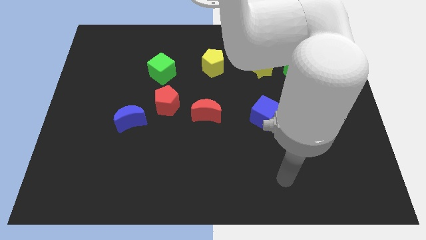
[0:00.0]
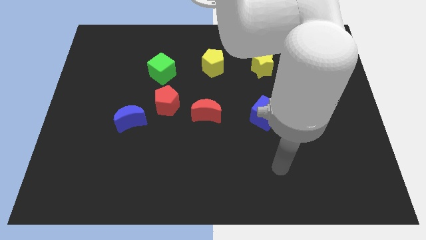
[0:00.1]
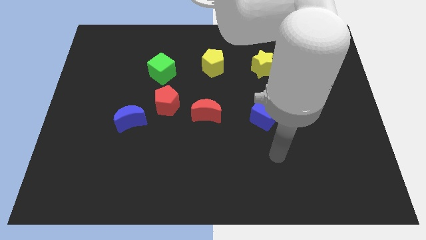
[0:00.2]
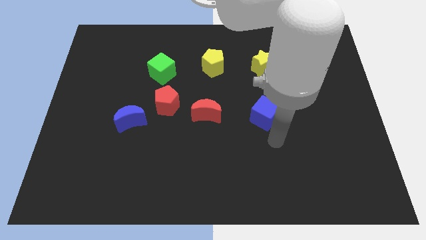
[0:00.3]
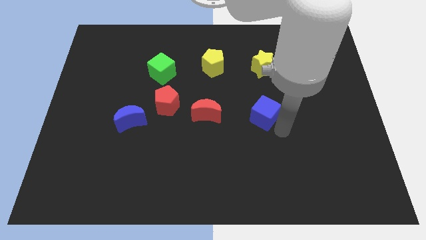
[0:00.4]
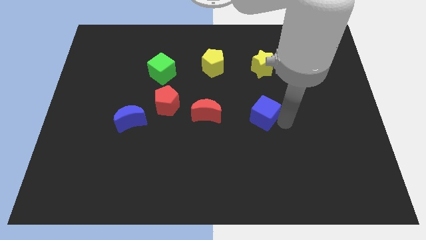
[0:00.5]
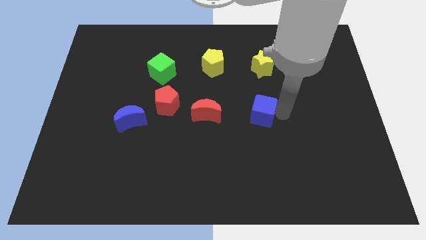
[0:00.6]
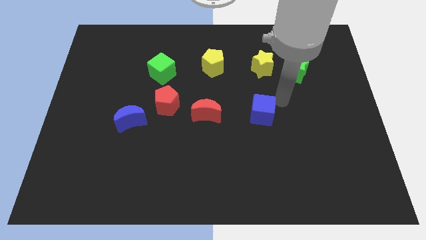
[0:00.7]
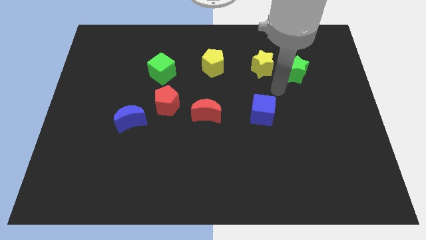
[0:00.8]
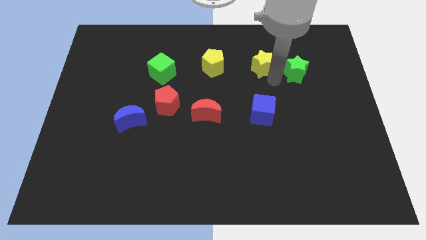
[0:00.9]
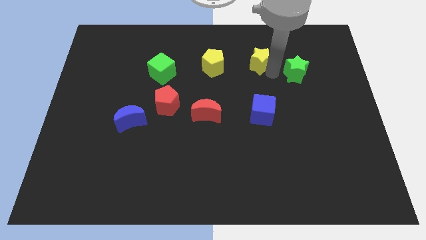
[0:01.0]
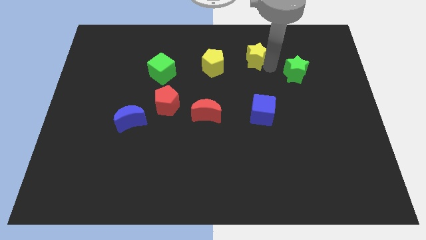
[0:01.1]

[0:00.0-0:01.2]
pull the green star apart from the yellow star

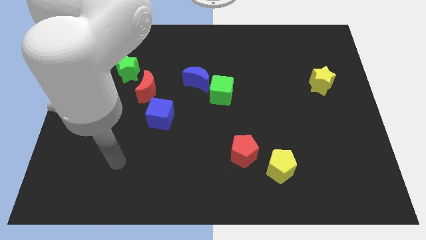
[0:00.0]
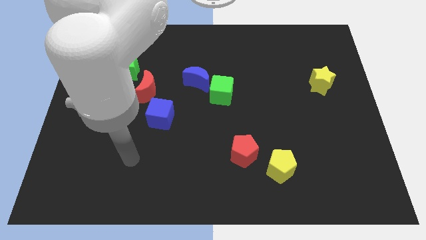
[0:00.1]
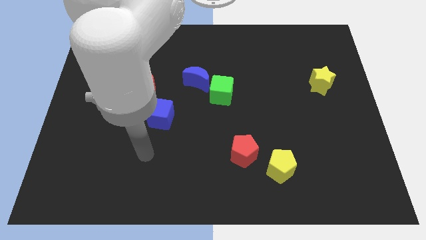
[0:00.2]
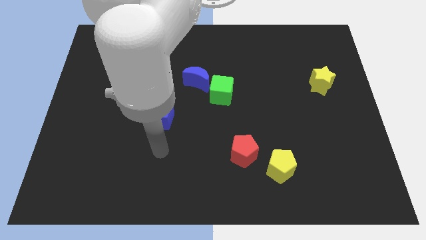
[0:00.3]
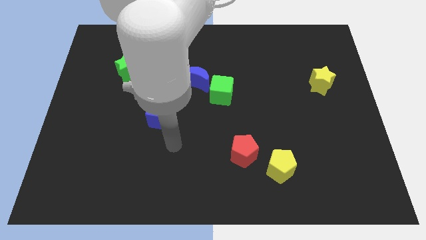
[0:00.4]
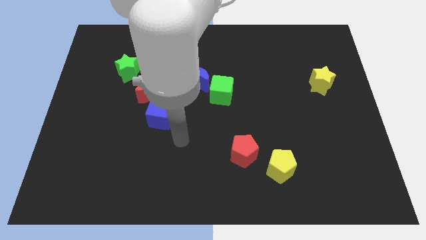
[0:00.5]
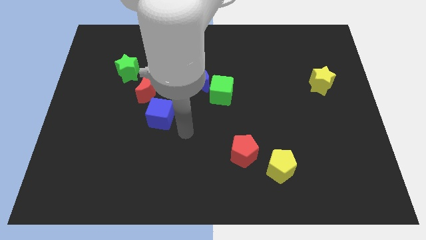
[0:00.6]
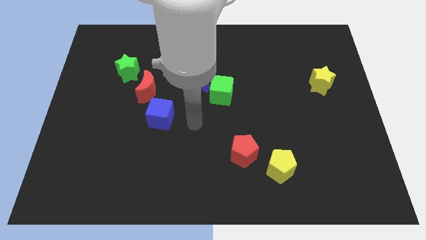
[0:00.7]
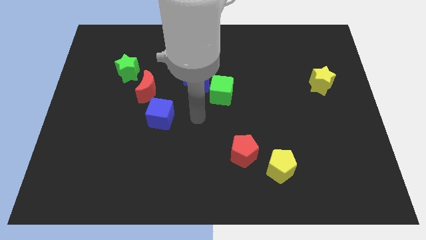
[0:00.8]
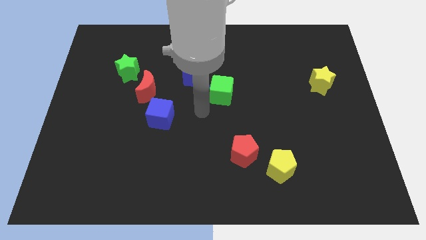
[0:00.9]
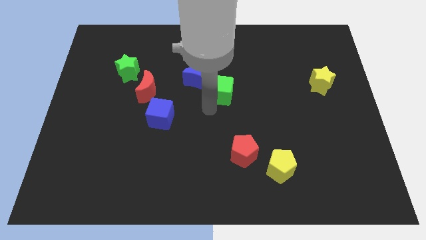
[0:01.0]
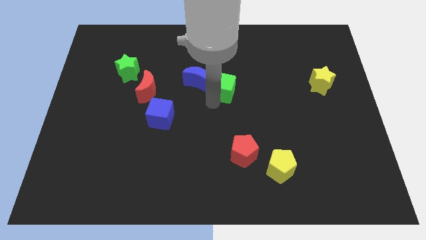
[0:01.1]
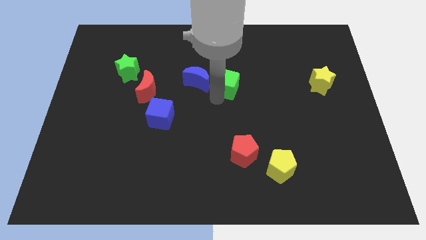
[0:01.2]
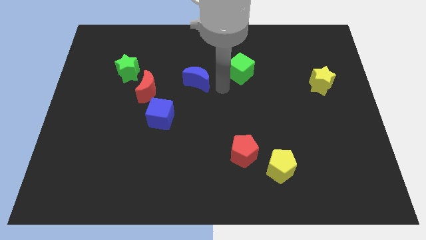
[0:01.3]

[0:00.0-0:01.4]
move the blue moon away from the green cube

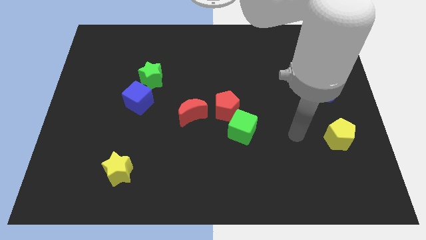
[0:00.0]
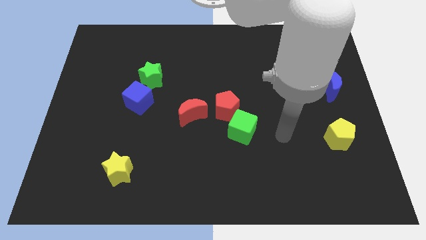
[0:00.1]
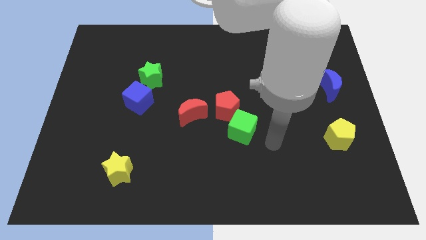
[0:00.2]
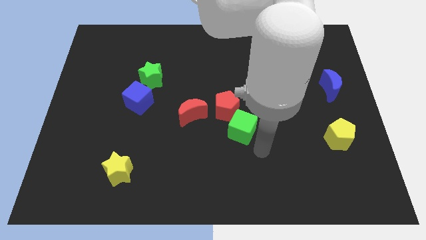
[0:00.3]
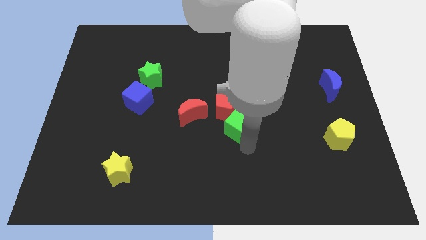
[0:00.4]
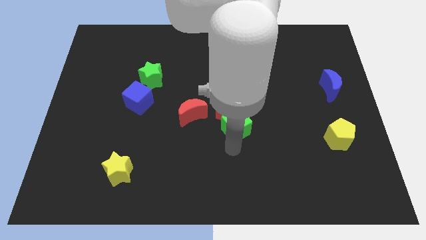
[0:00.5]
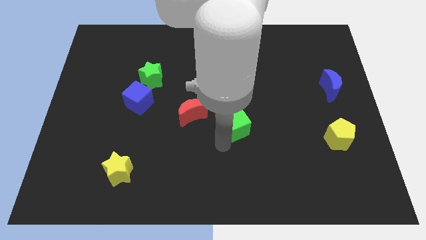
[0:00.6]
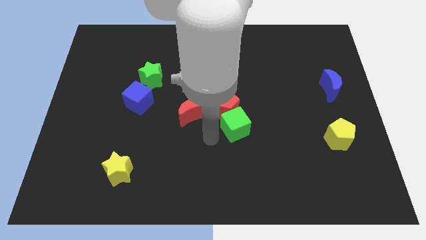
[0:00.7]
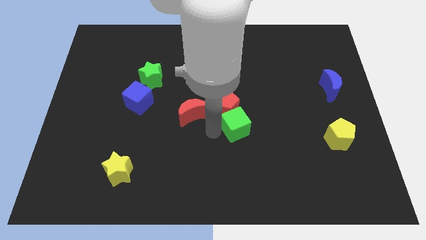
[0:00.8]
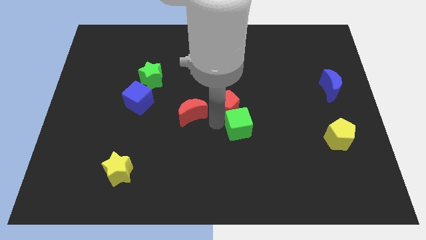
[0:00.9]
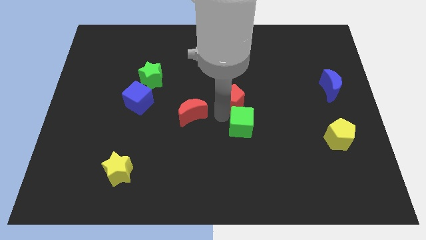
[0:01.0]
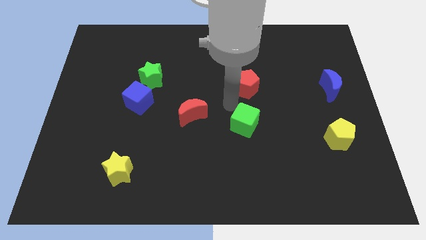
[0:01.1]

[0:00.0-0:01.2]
pull the green cube apart from the red pentagon

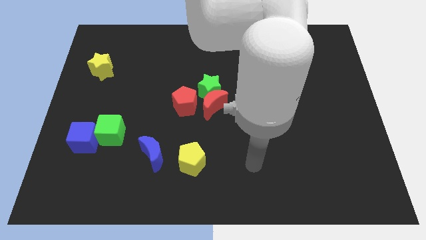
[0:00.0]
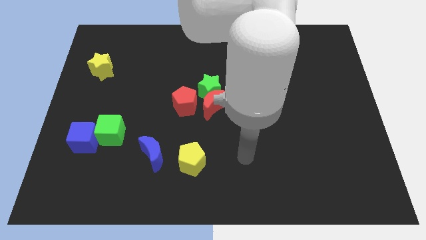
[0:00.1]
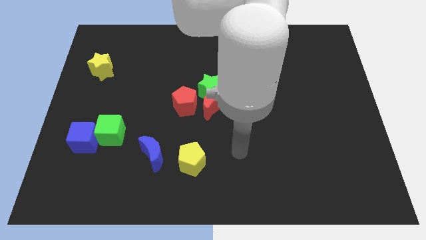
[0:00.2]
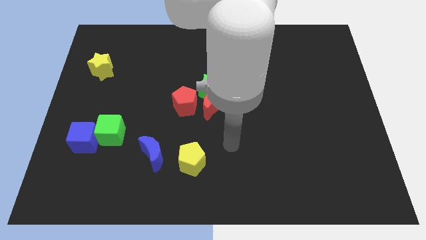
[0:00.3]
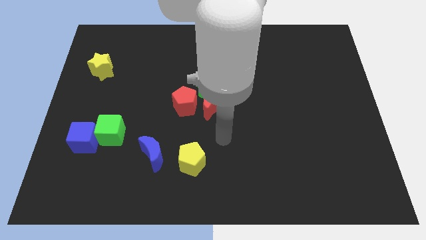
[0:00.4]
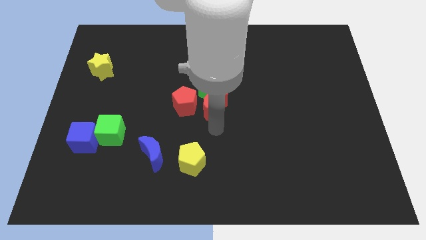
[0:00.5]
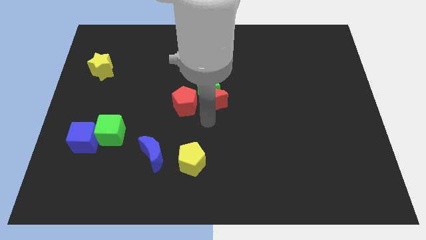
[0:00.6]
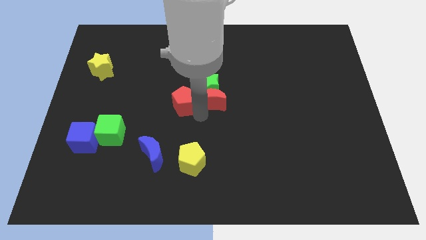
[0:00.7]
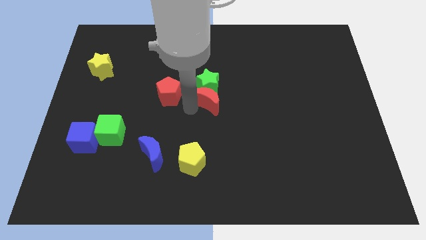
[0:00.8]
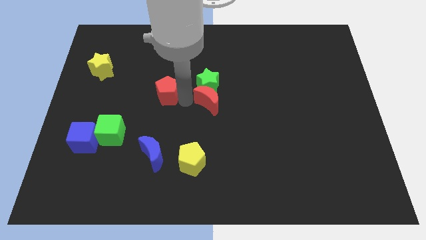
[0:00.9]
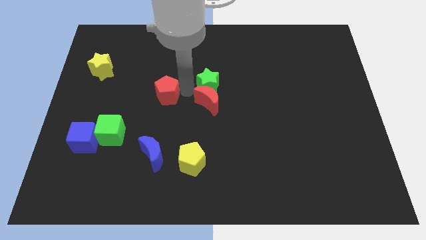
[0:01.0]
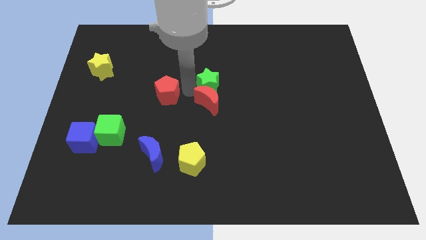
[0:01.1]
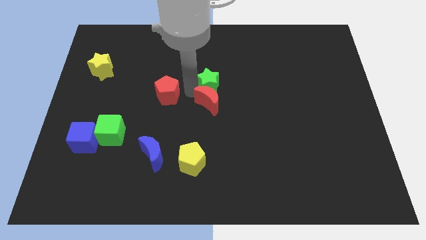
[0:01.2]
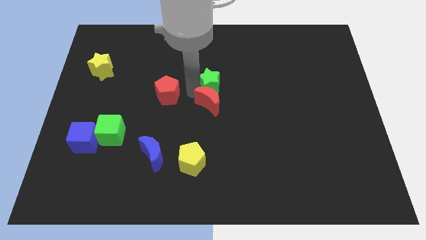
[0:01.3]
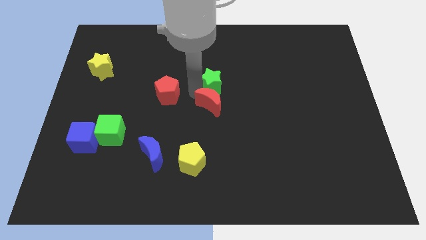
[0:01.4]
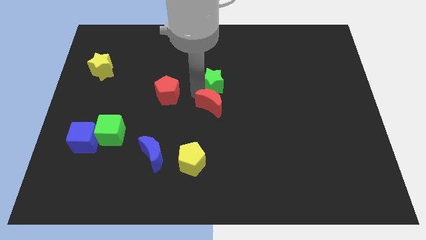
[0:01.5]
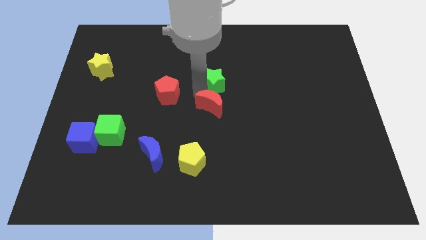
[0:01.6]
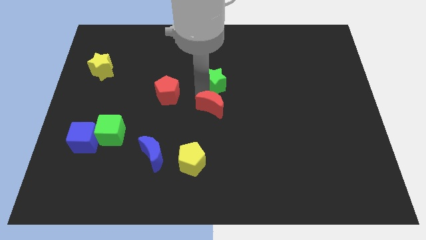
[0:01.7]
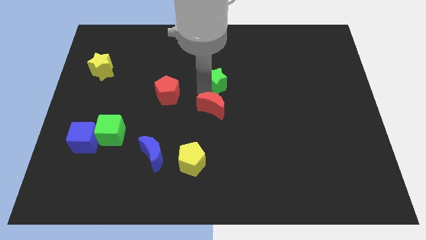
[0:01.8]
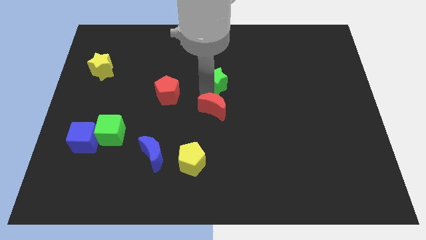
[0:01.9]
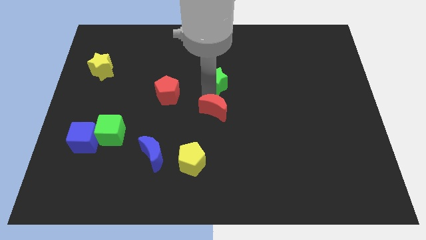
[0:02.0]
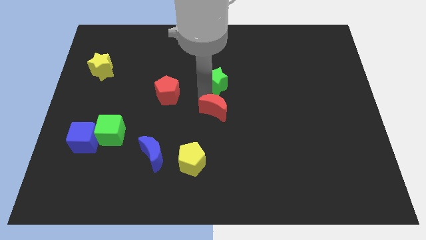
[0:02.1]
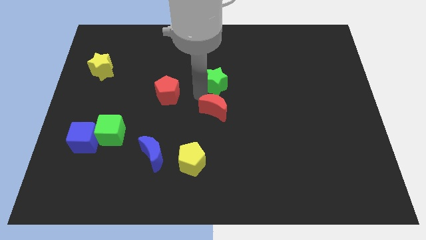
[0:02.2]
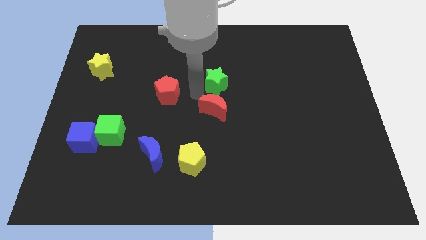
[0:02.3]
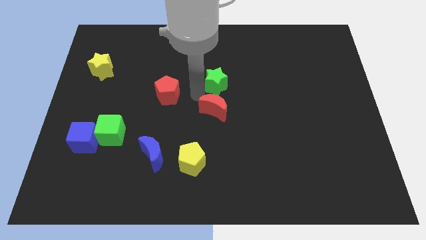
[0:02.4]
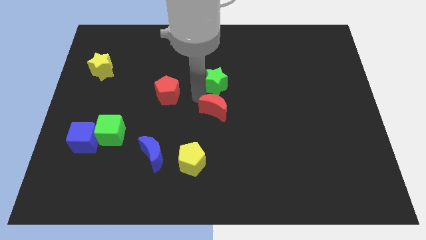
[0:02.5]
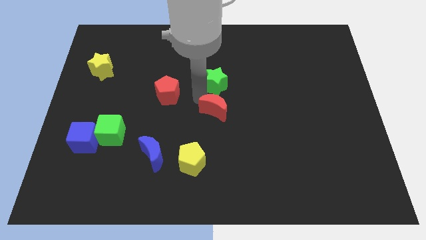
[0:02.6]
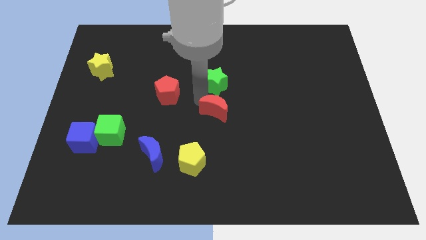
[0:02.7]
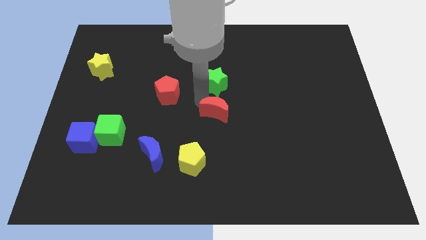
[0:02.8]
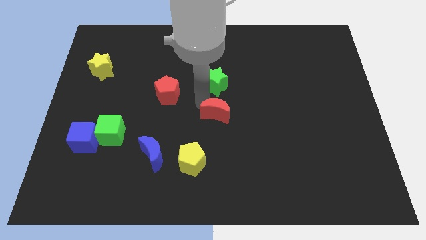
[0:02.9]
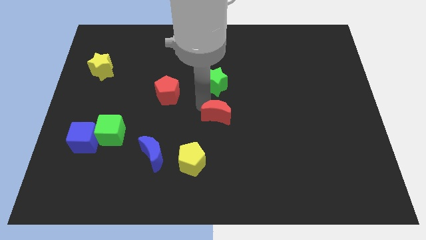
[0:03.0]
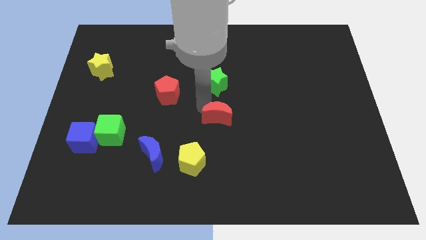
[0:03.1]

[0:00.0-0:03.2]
pull the red moon apart from the green star and red pentagon

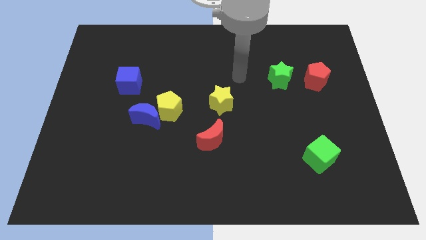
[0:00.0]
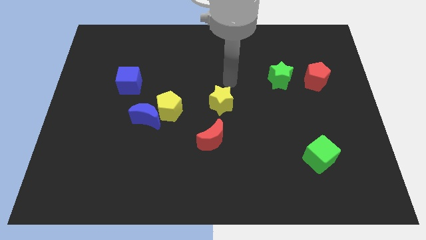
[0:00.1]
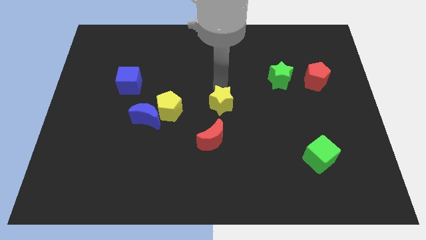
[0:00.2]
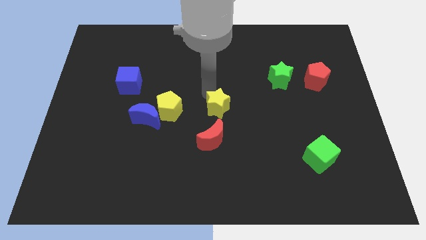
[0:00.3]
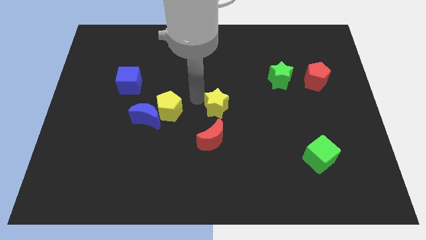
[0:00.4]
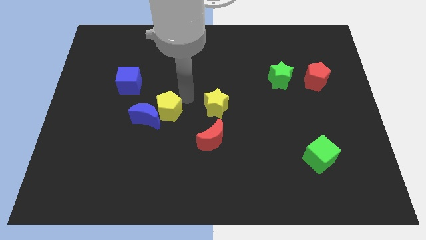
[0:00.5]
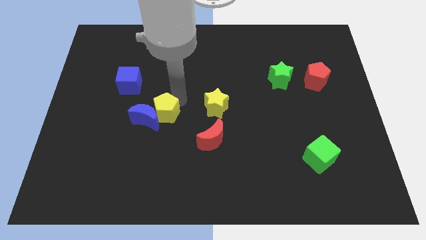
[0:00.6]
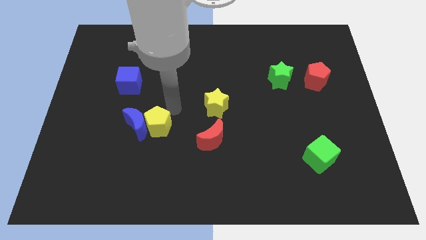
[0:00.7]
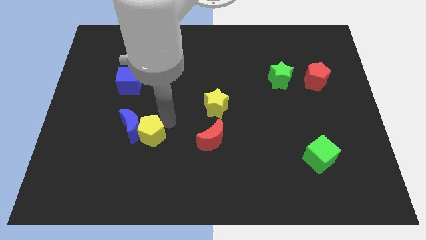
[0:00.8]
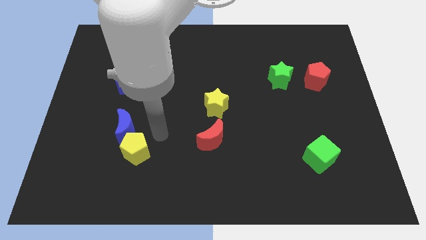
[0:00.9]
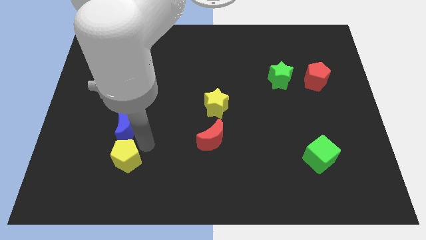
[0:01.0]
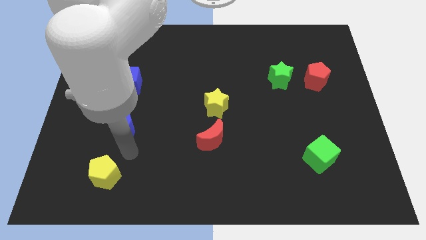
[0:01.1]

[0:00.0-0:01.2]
move the blue moon away from the yellow pentagon

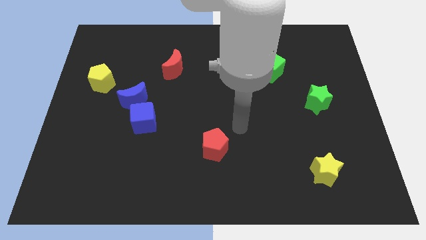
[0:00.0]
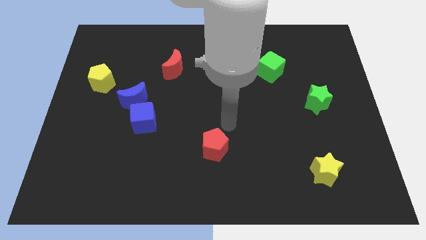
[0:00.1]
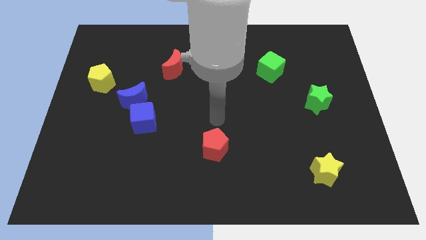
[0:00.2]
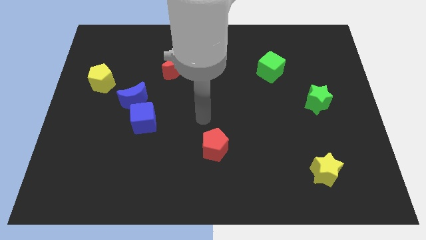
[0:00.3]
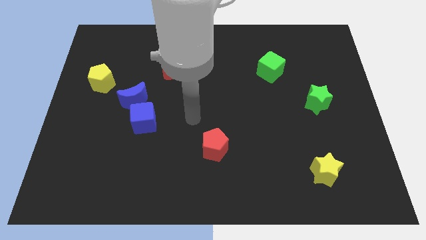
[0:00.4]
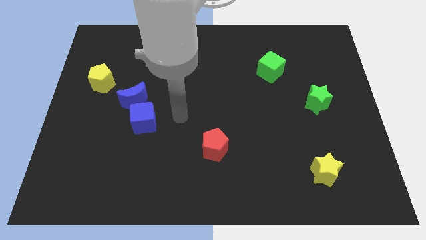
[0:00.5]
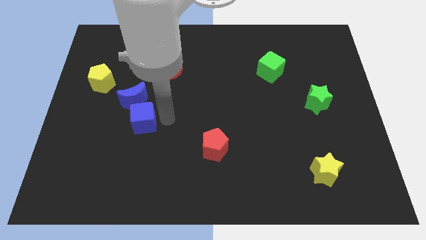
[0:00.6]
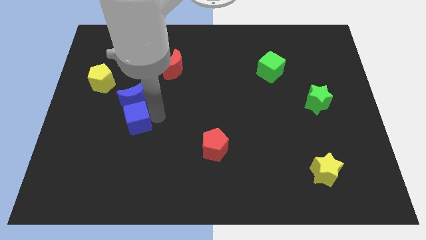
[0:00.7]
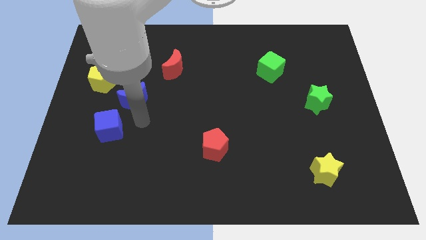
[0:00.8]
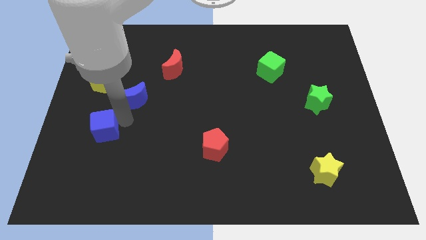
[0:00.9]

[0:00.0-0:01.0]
pull the blue moon apart from the blue cube
